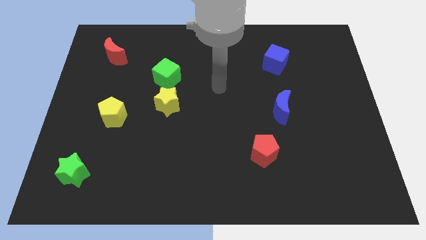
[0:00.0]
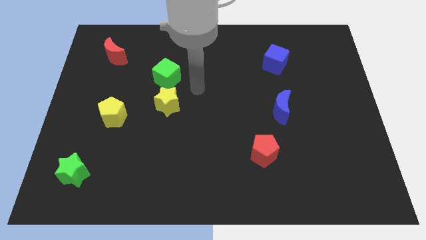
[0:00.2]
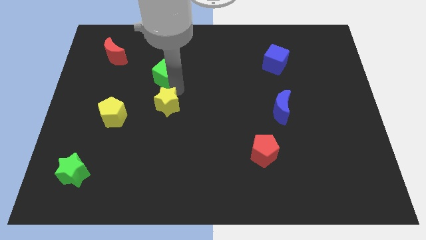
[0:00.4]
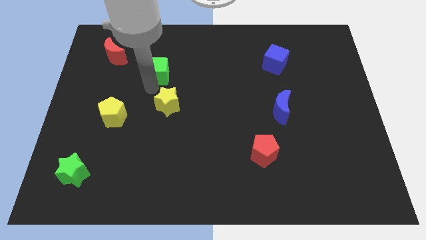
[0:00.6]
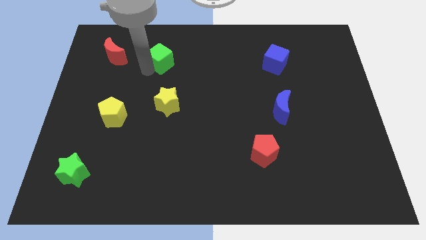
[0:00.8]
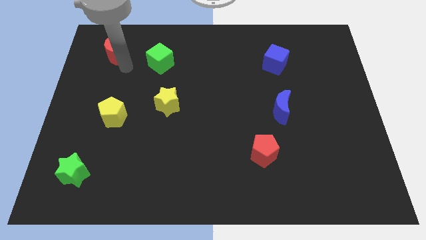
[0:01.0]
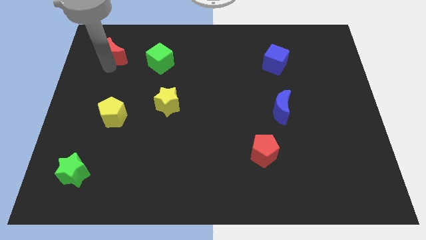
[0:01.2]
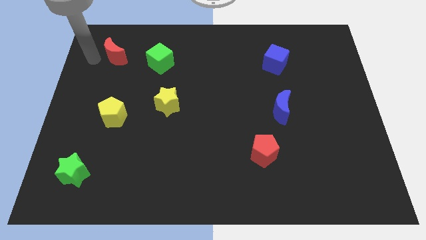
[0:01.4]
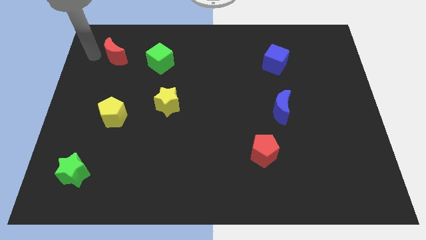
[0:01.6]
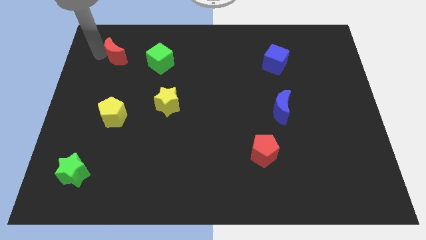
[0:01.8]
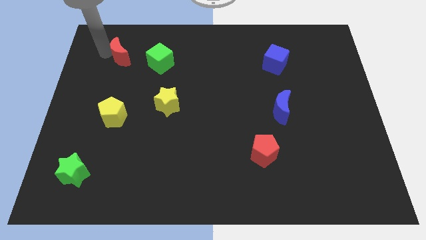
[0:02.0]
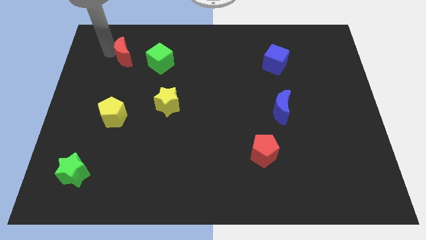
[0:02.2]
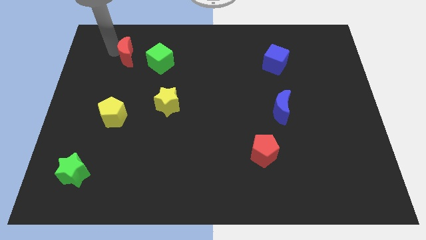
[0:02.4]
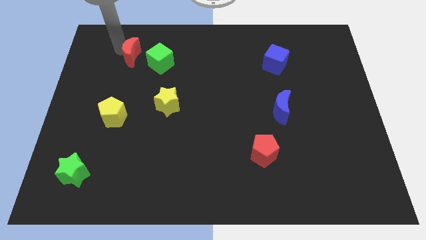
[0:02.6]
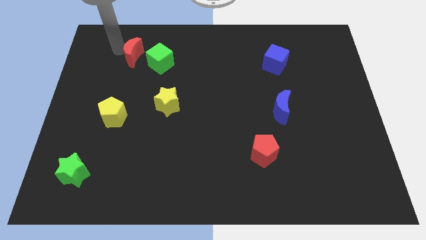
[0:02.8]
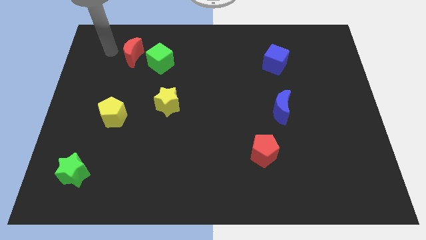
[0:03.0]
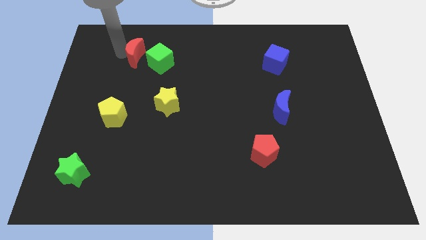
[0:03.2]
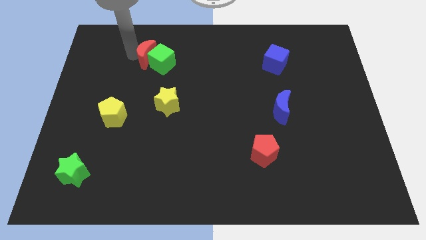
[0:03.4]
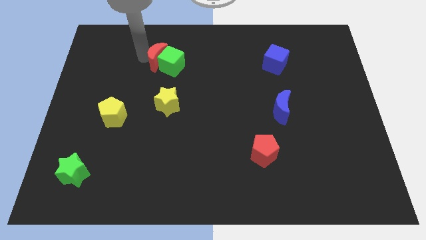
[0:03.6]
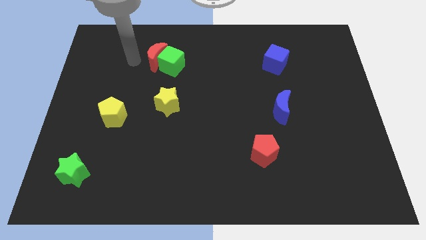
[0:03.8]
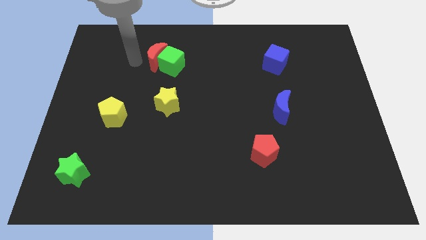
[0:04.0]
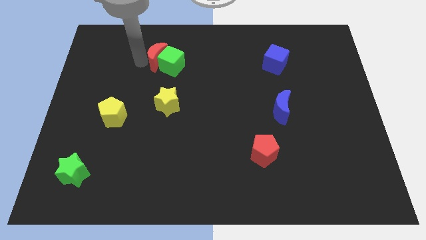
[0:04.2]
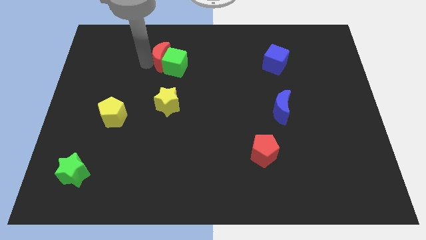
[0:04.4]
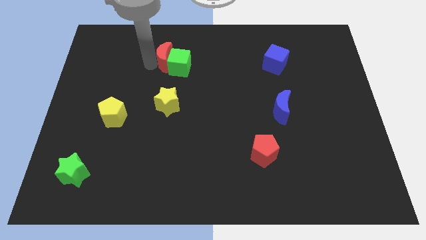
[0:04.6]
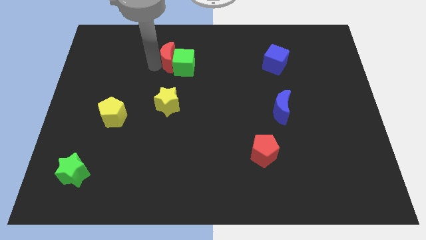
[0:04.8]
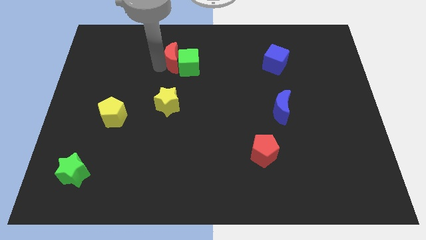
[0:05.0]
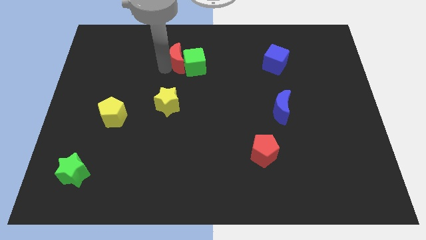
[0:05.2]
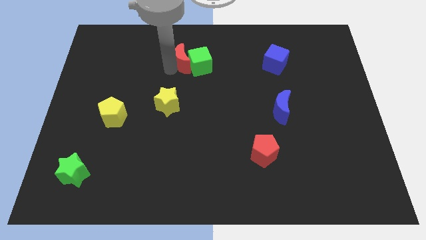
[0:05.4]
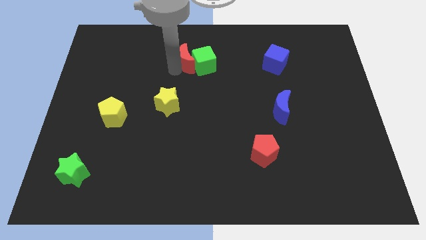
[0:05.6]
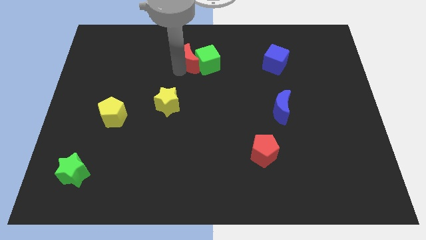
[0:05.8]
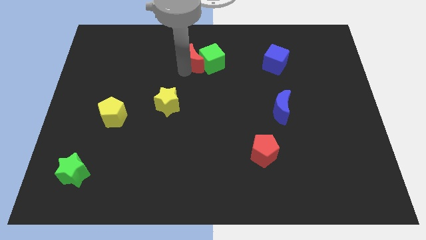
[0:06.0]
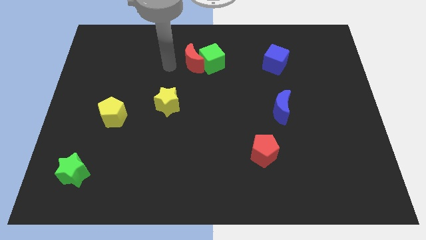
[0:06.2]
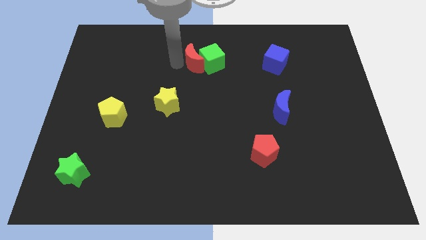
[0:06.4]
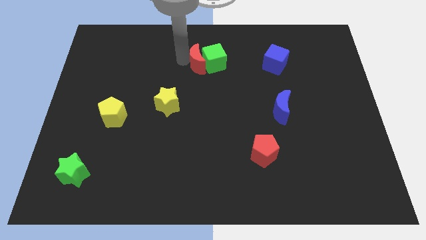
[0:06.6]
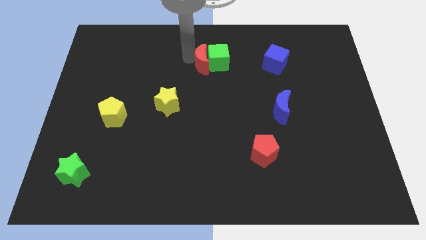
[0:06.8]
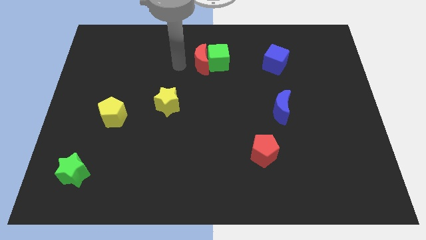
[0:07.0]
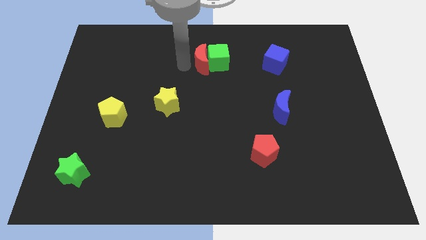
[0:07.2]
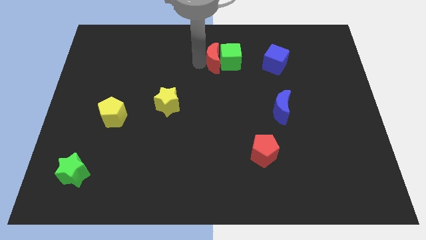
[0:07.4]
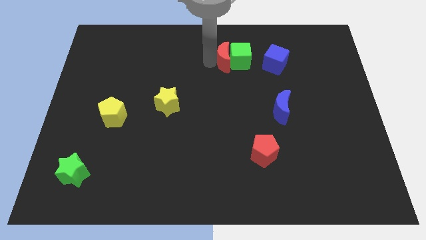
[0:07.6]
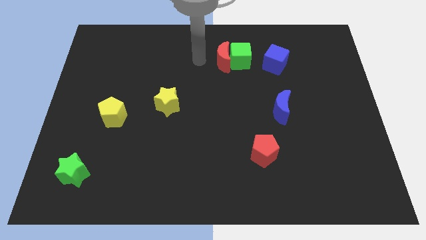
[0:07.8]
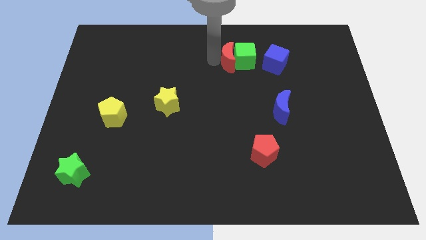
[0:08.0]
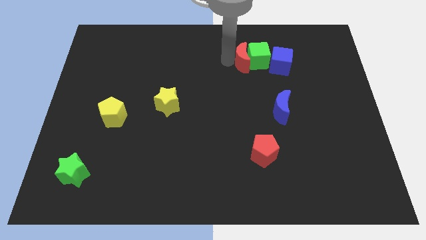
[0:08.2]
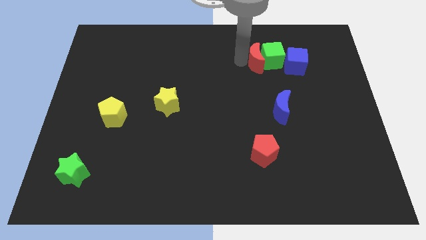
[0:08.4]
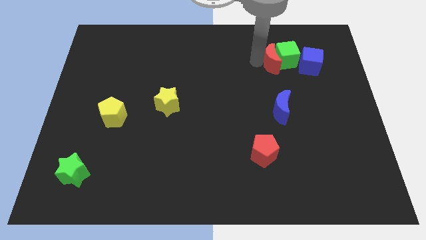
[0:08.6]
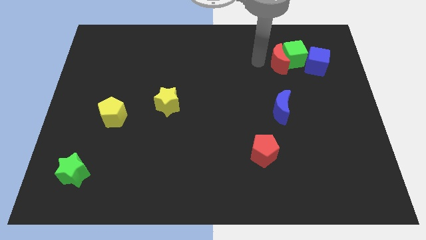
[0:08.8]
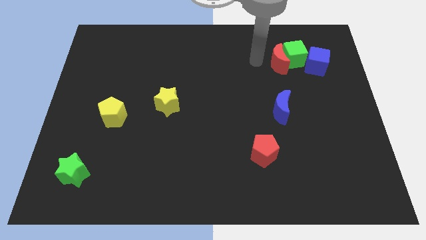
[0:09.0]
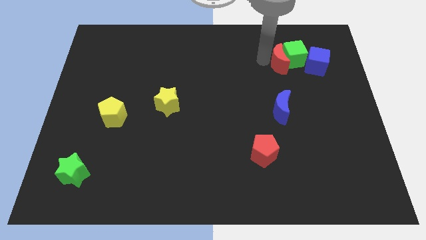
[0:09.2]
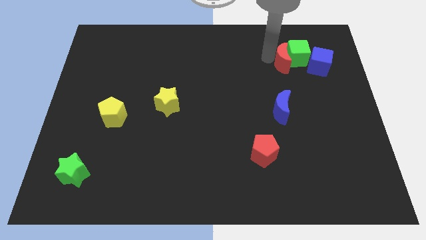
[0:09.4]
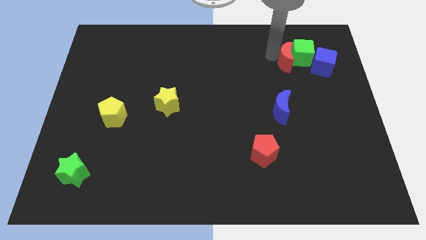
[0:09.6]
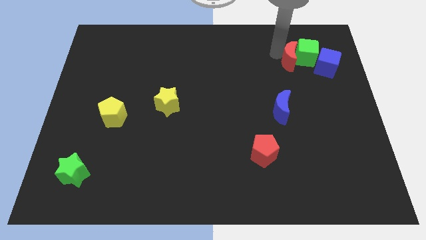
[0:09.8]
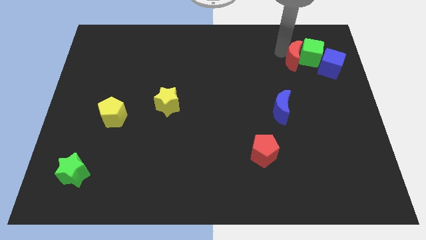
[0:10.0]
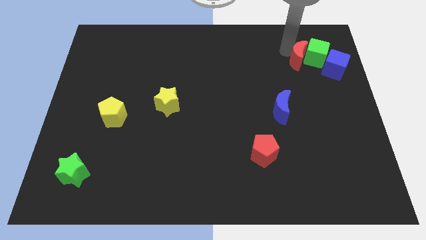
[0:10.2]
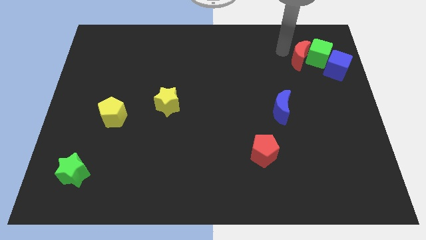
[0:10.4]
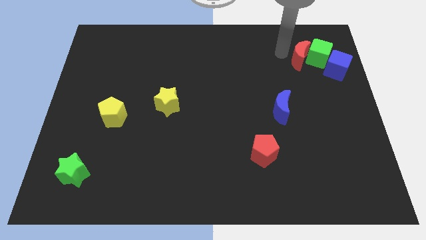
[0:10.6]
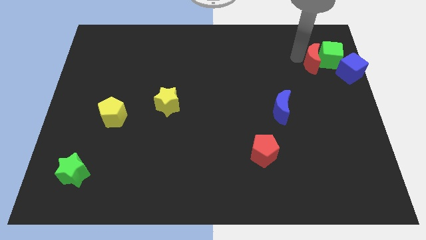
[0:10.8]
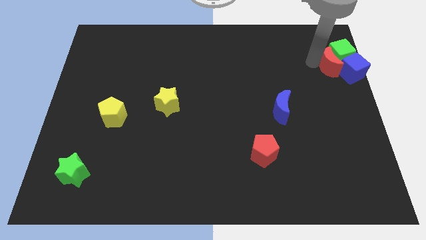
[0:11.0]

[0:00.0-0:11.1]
put the red moon towards the blue cube

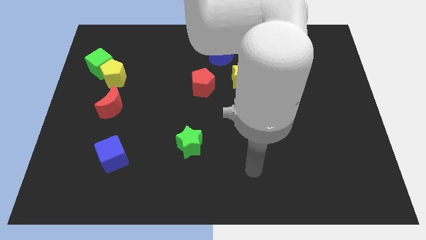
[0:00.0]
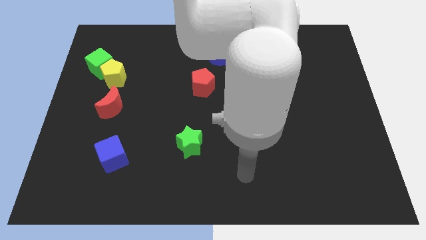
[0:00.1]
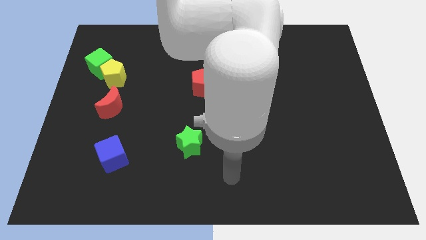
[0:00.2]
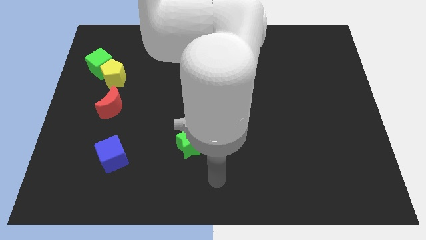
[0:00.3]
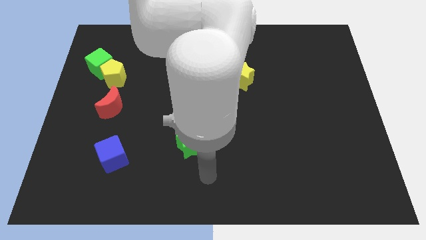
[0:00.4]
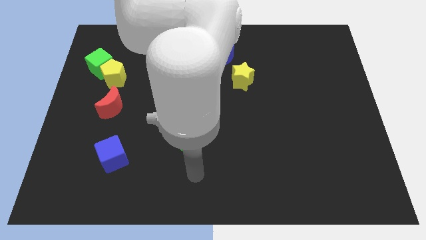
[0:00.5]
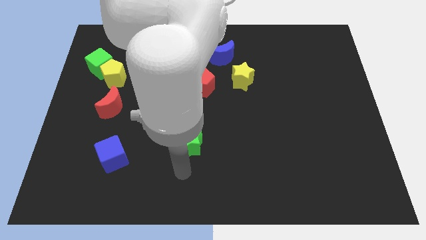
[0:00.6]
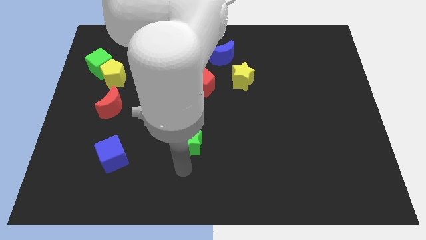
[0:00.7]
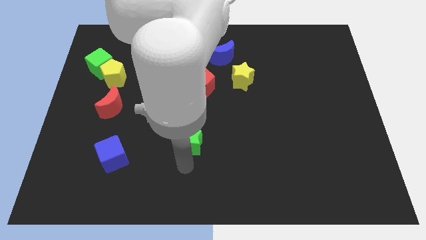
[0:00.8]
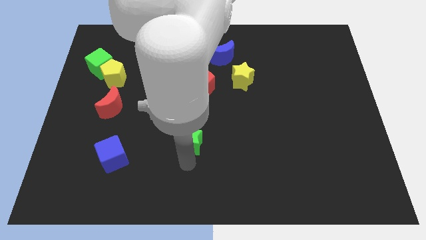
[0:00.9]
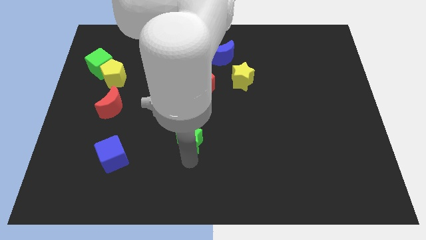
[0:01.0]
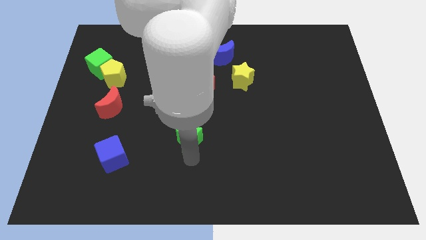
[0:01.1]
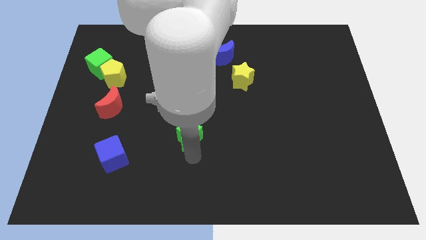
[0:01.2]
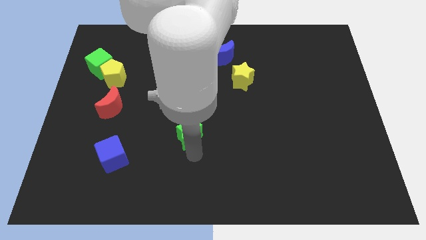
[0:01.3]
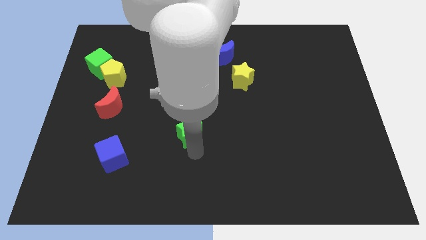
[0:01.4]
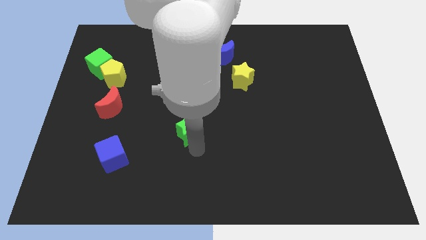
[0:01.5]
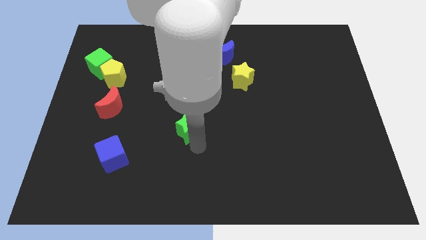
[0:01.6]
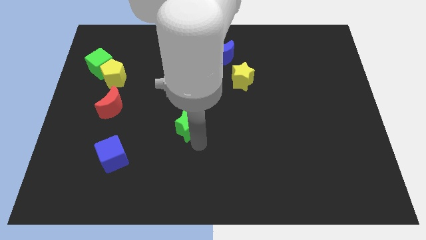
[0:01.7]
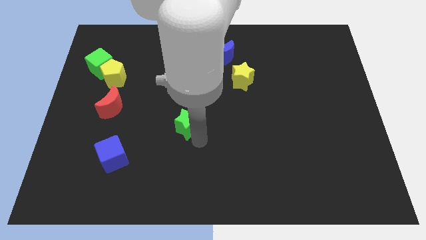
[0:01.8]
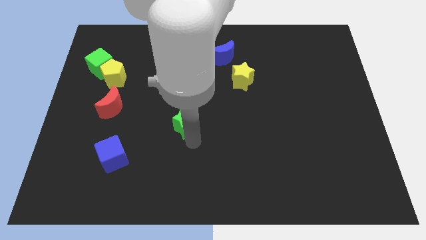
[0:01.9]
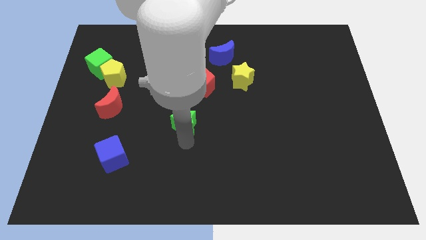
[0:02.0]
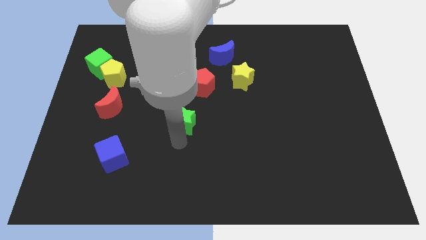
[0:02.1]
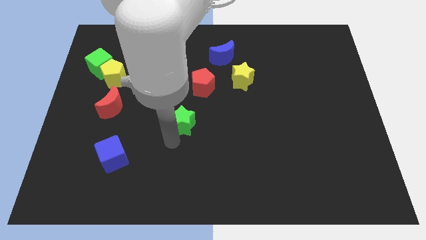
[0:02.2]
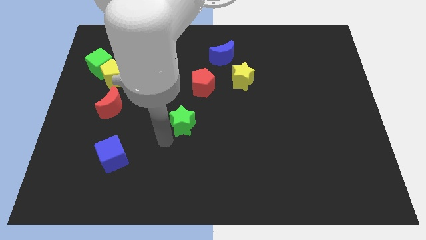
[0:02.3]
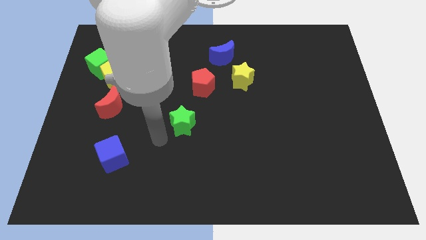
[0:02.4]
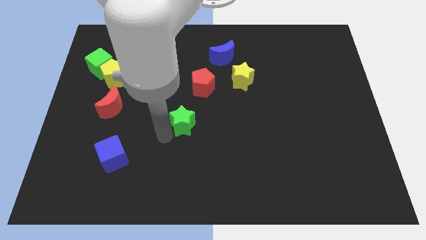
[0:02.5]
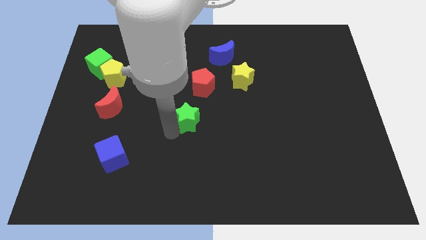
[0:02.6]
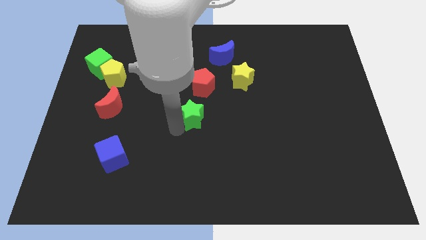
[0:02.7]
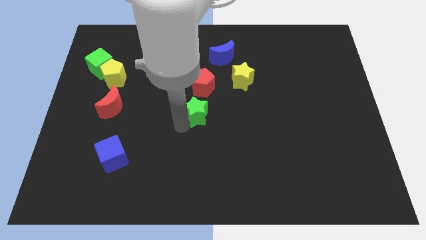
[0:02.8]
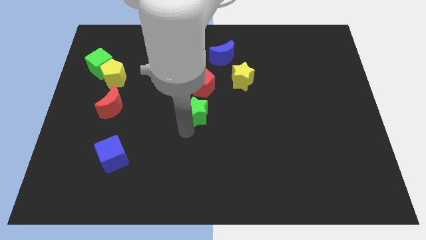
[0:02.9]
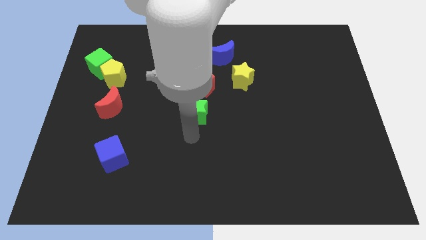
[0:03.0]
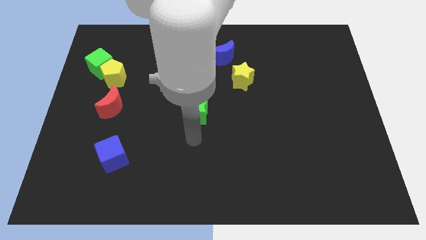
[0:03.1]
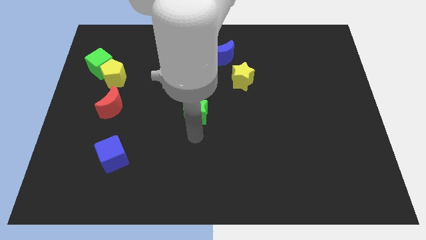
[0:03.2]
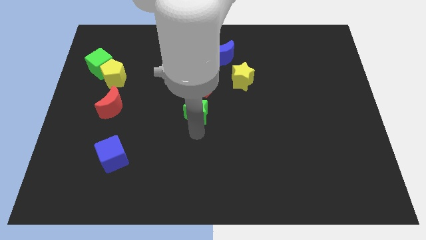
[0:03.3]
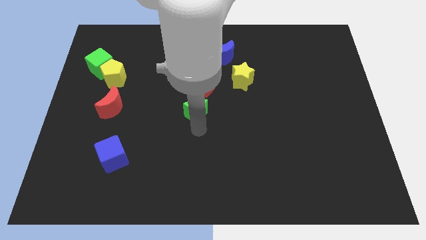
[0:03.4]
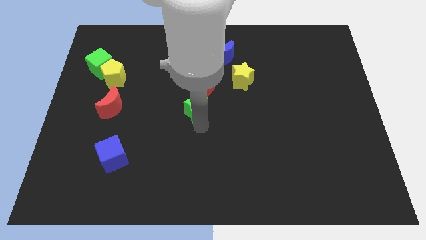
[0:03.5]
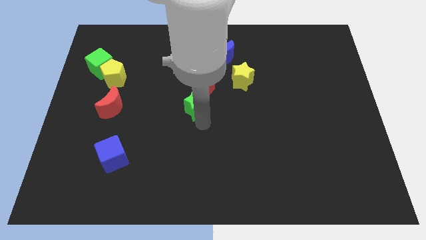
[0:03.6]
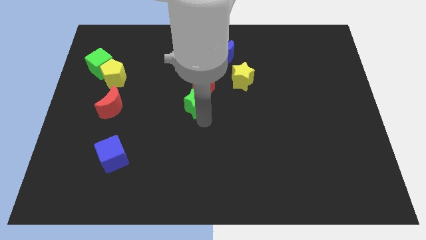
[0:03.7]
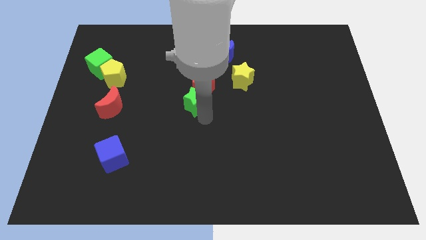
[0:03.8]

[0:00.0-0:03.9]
slide the green star to the red pentagon
